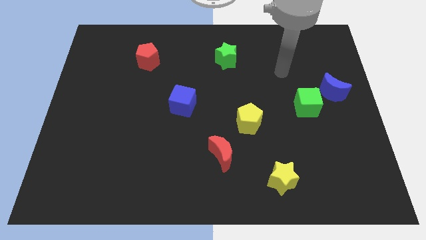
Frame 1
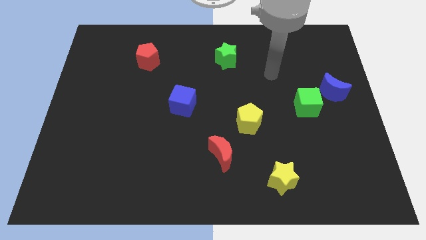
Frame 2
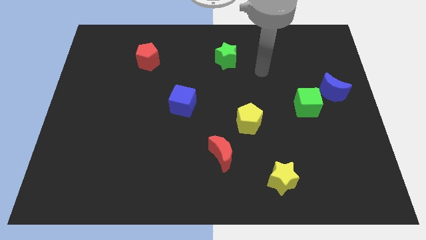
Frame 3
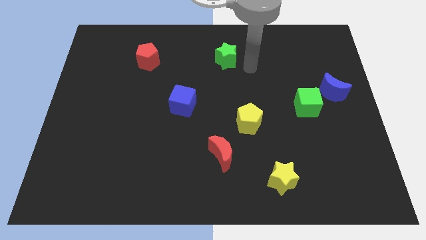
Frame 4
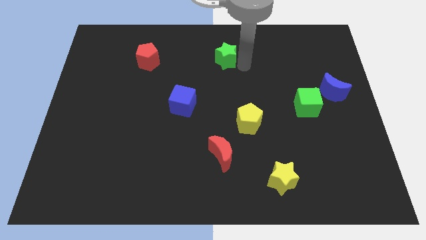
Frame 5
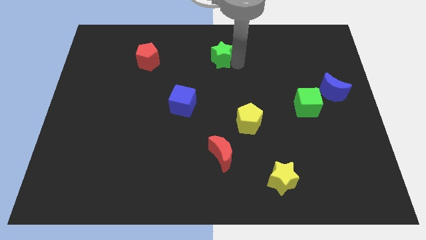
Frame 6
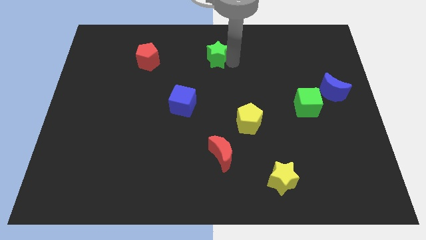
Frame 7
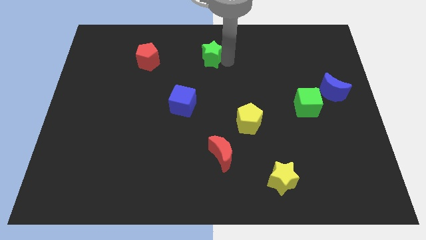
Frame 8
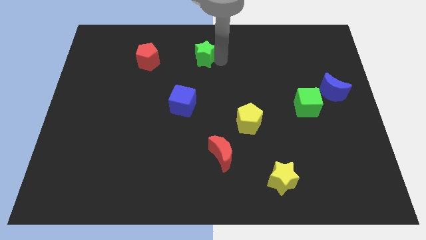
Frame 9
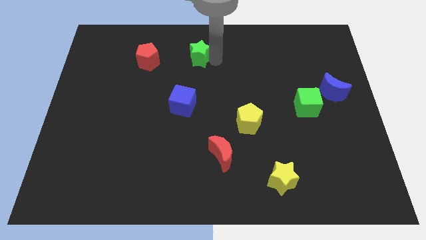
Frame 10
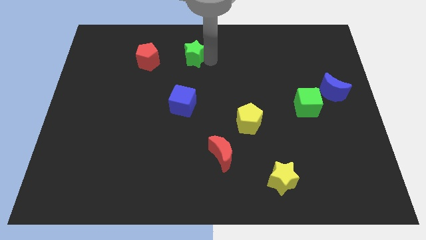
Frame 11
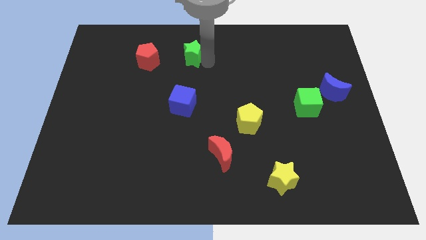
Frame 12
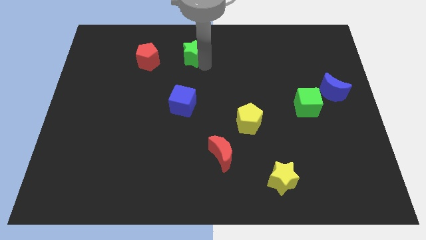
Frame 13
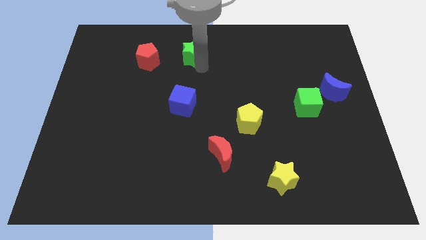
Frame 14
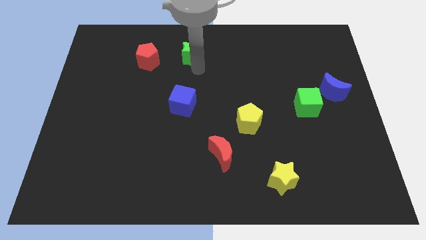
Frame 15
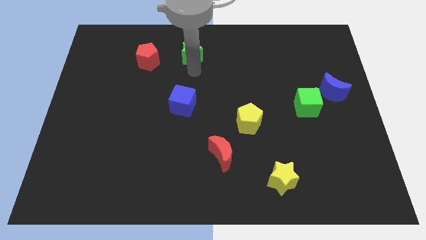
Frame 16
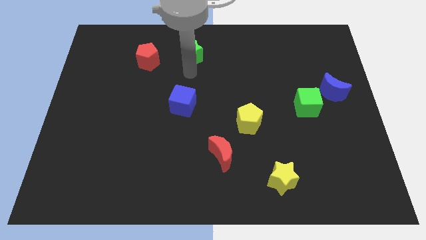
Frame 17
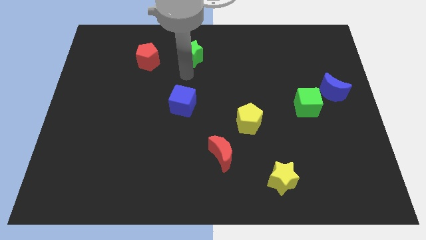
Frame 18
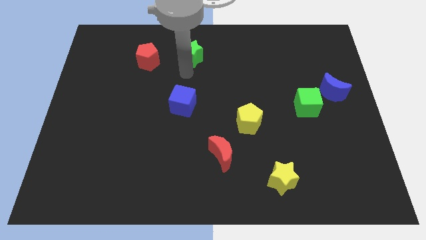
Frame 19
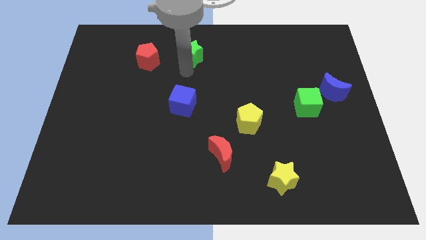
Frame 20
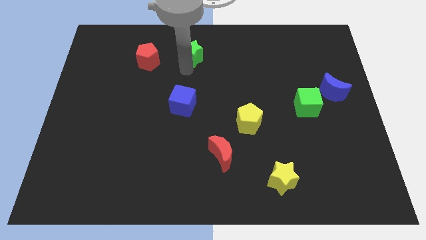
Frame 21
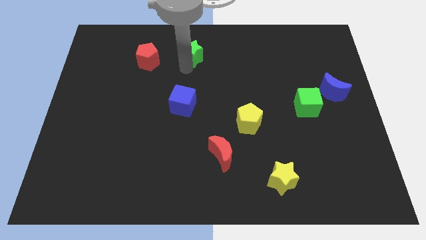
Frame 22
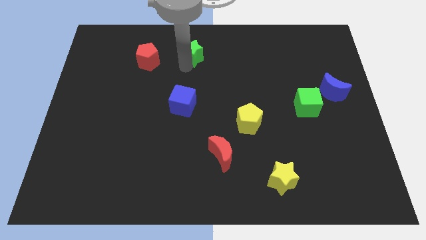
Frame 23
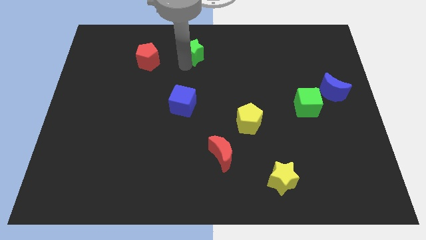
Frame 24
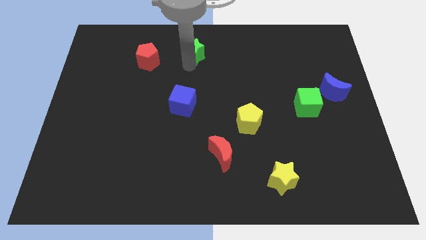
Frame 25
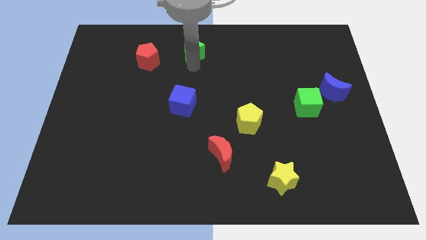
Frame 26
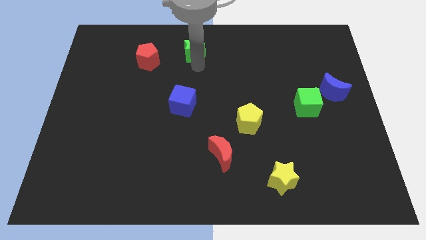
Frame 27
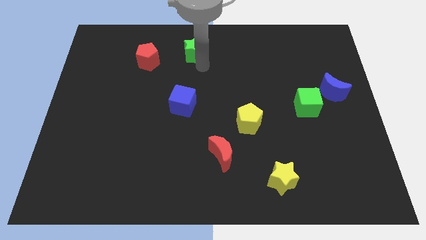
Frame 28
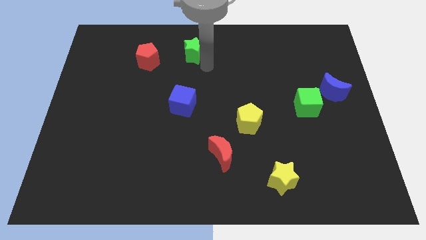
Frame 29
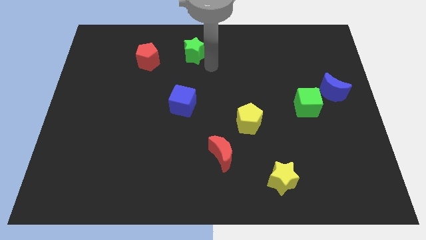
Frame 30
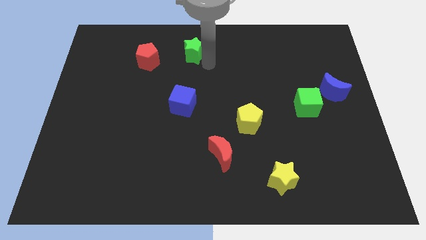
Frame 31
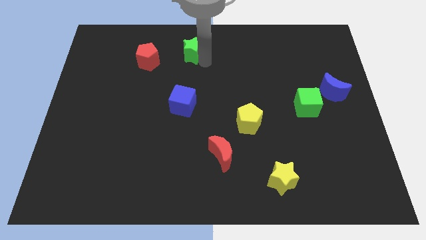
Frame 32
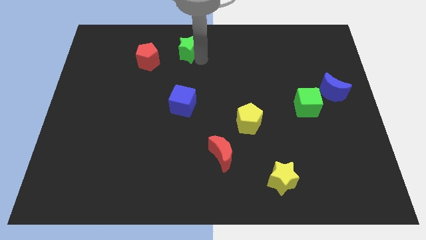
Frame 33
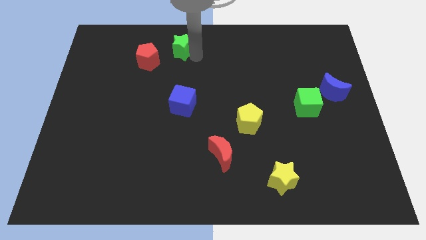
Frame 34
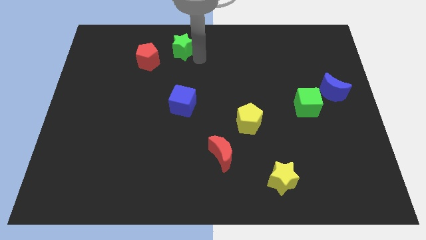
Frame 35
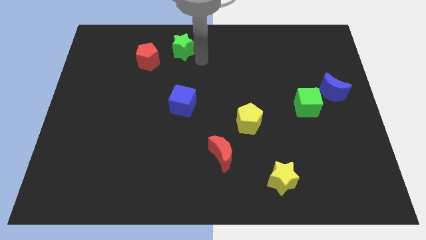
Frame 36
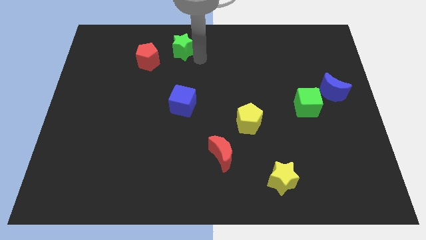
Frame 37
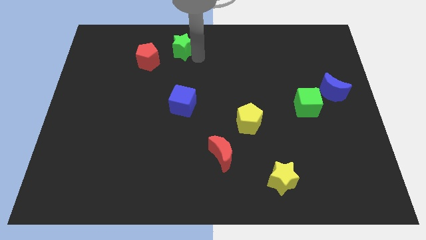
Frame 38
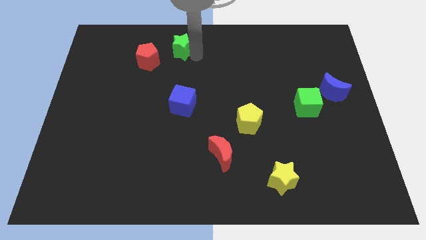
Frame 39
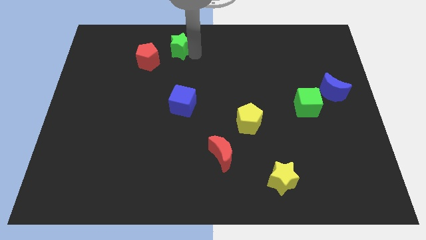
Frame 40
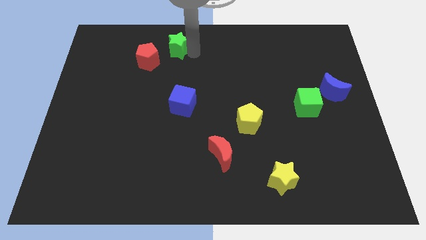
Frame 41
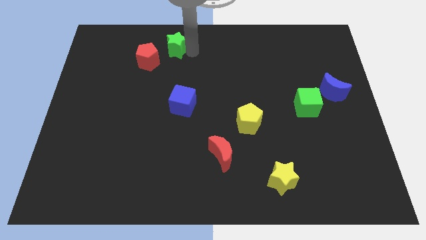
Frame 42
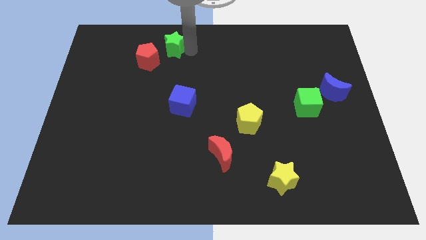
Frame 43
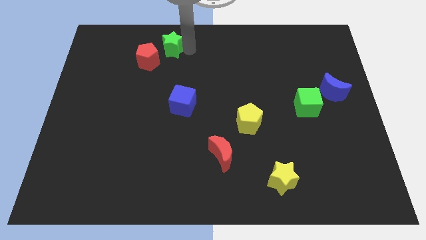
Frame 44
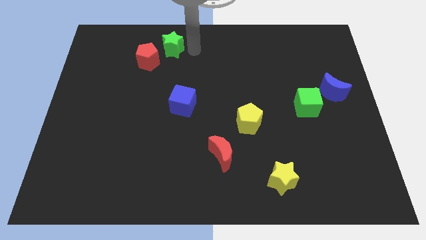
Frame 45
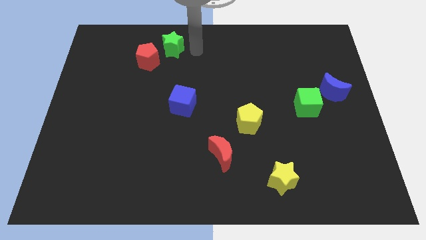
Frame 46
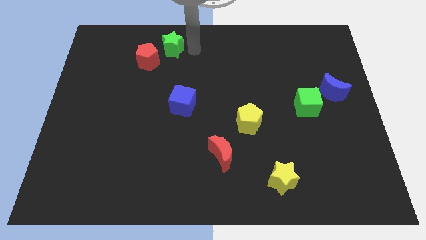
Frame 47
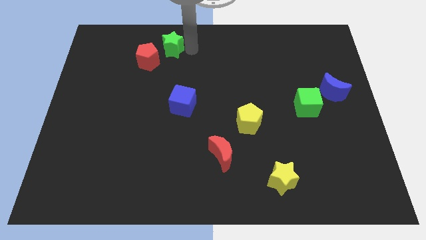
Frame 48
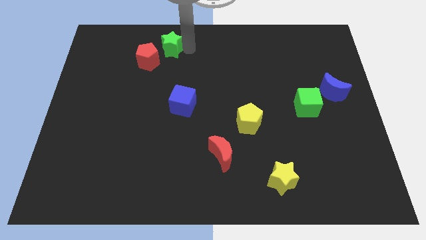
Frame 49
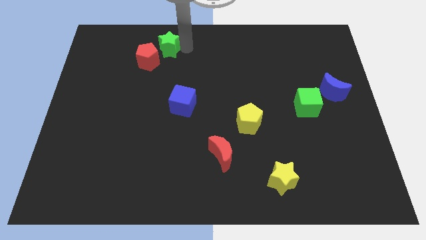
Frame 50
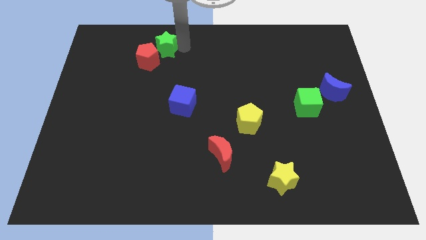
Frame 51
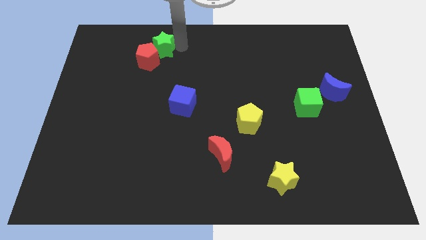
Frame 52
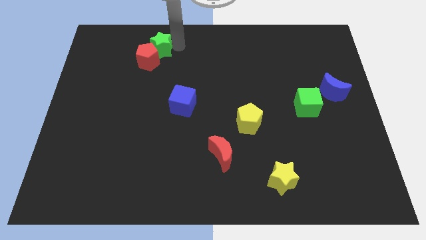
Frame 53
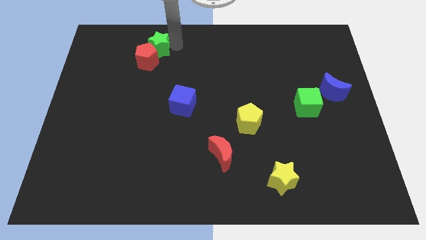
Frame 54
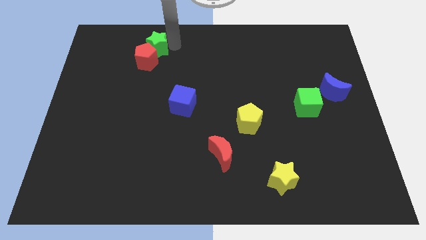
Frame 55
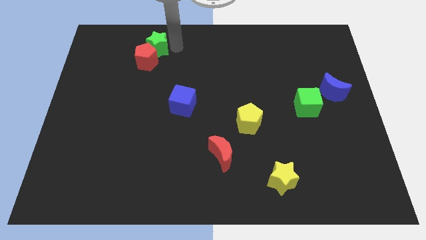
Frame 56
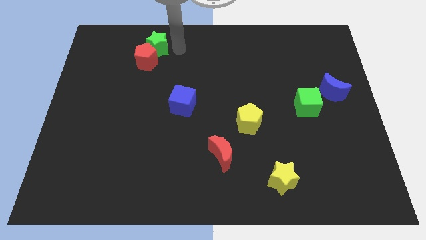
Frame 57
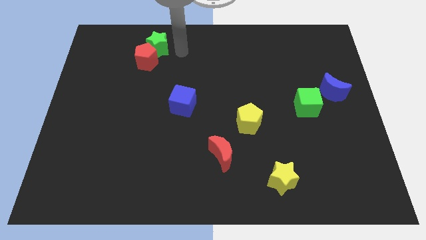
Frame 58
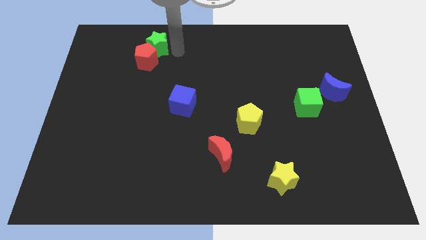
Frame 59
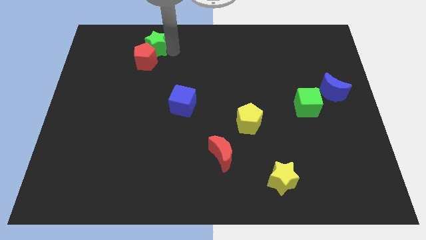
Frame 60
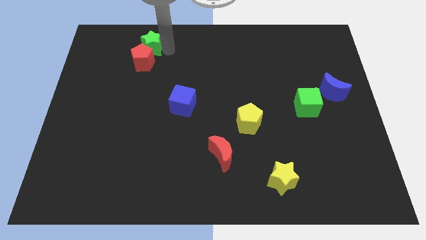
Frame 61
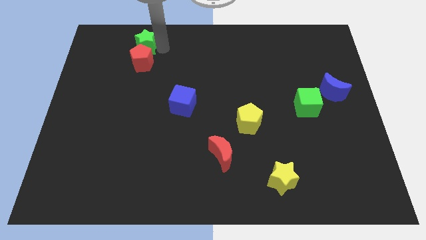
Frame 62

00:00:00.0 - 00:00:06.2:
slide the green star left

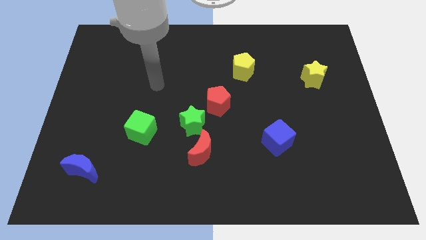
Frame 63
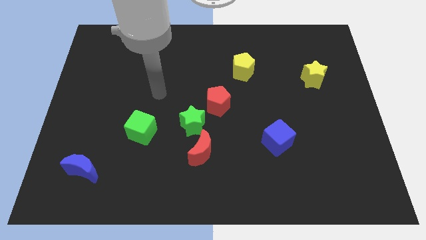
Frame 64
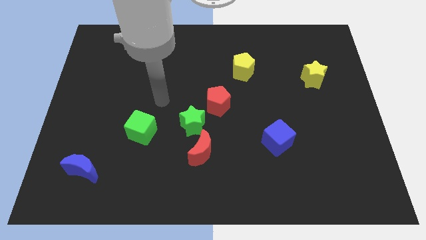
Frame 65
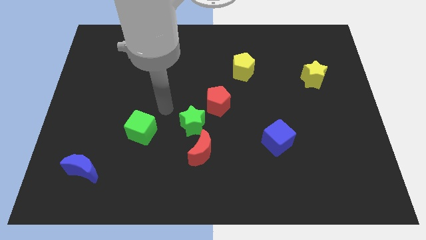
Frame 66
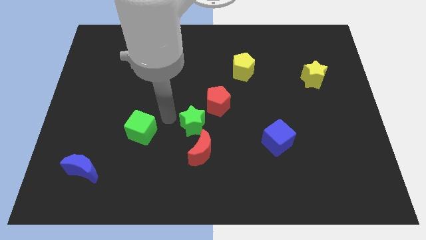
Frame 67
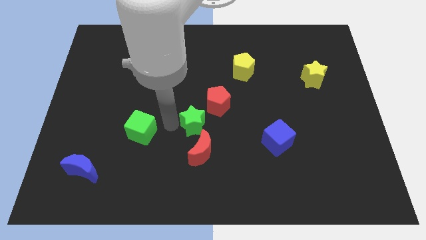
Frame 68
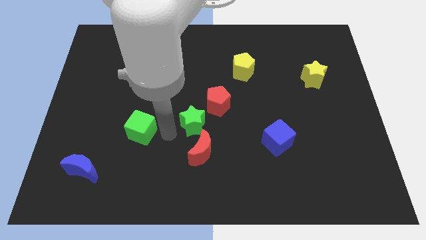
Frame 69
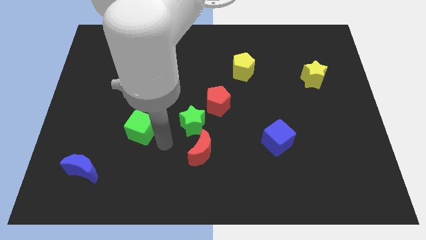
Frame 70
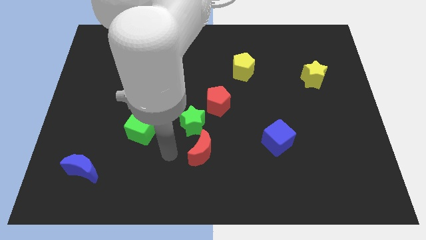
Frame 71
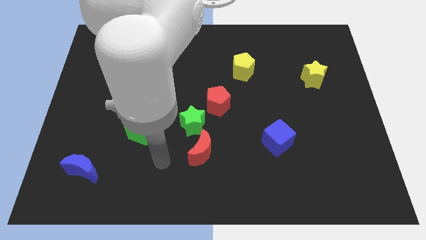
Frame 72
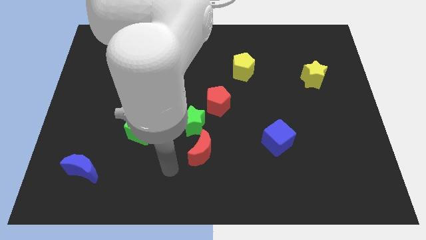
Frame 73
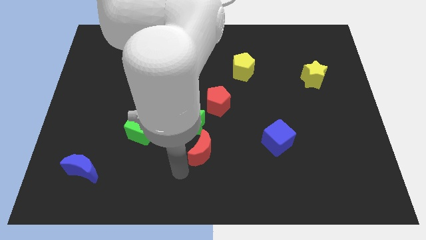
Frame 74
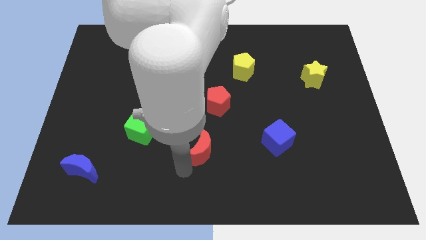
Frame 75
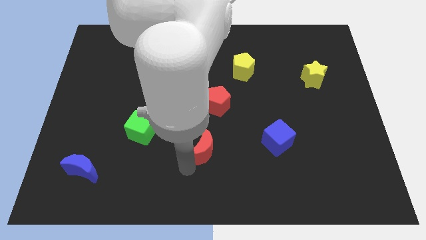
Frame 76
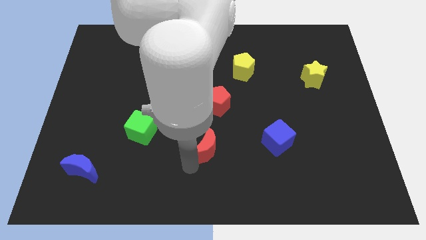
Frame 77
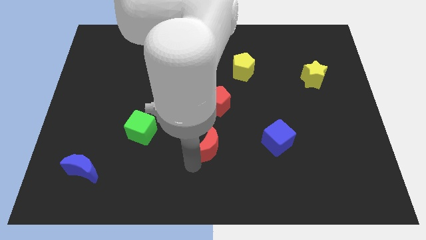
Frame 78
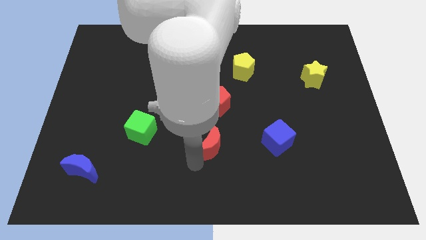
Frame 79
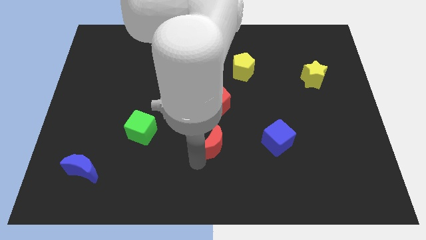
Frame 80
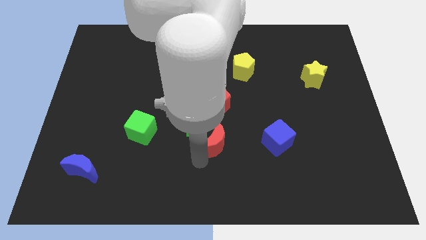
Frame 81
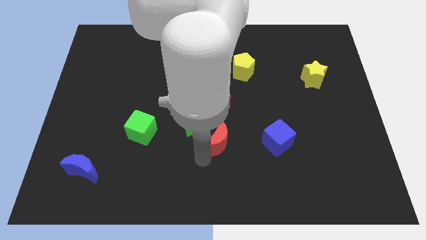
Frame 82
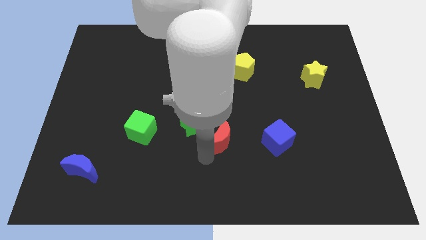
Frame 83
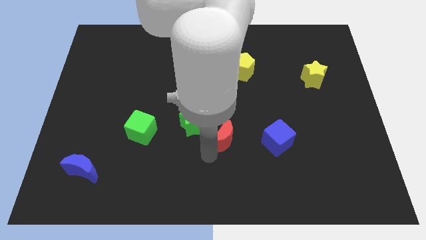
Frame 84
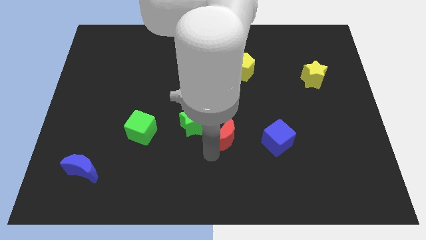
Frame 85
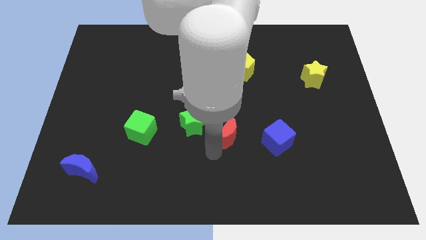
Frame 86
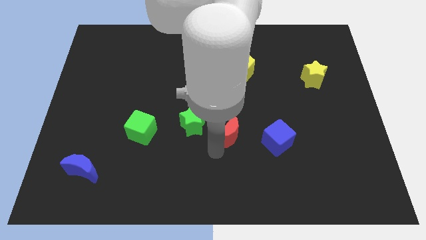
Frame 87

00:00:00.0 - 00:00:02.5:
move the red moon slightly diagonally upwards and to the right
